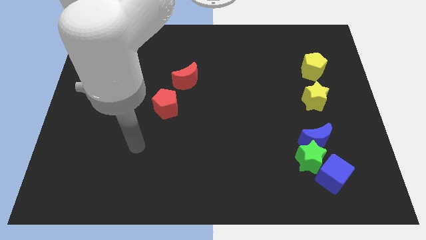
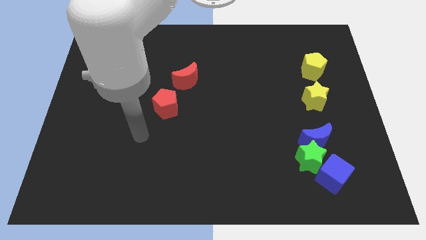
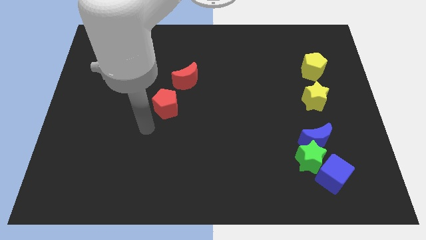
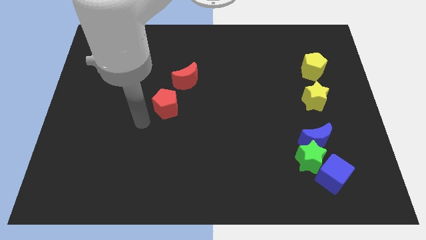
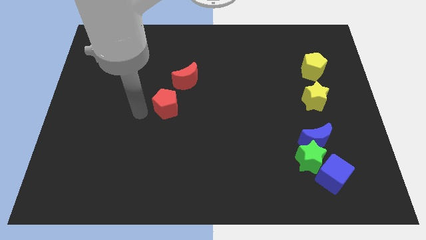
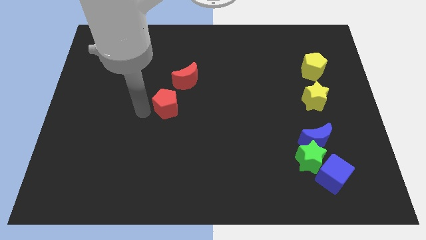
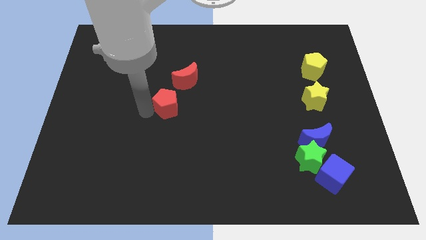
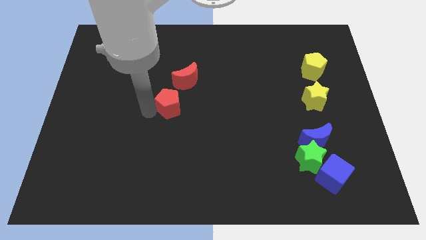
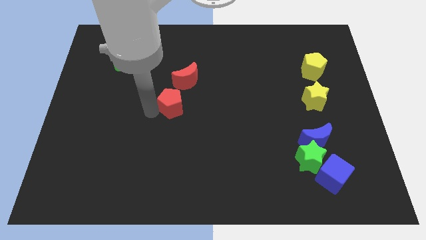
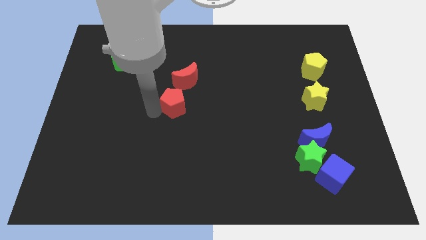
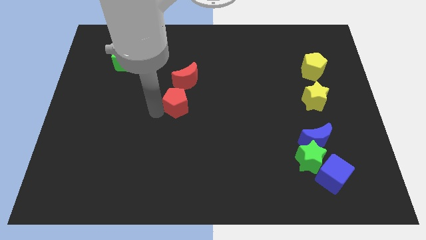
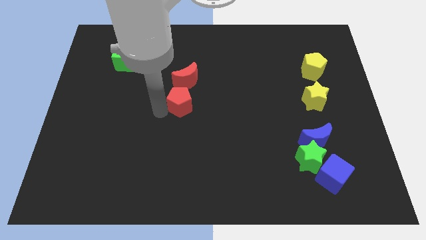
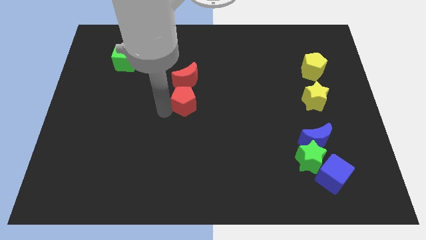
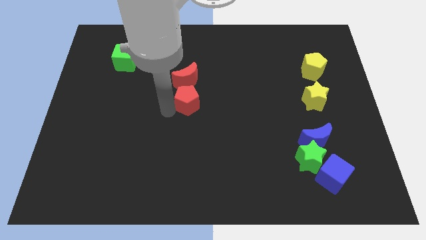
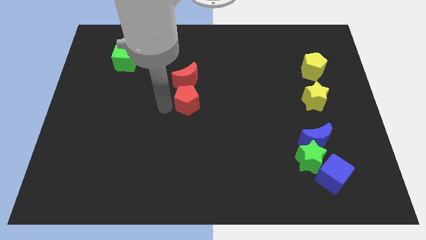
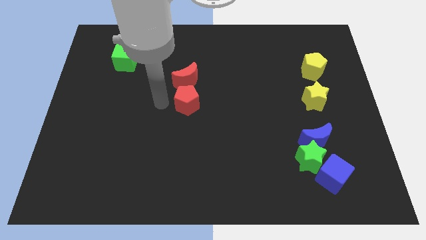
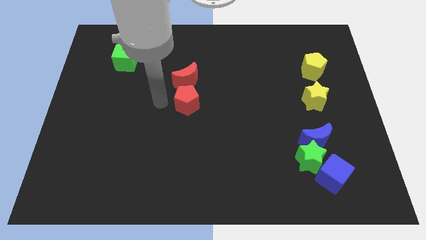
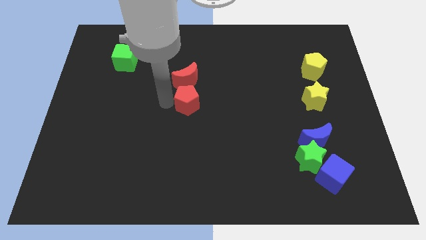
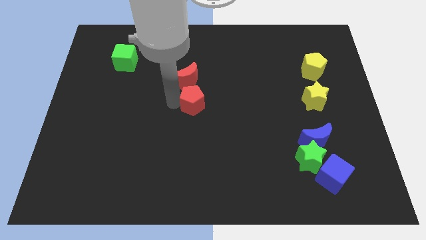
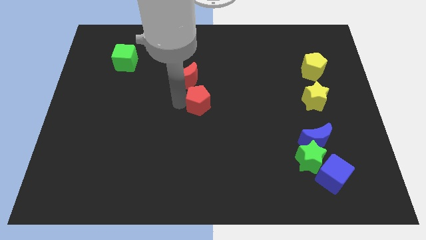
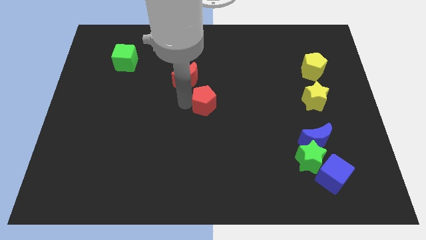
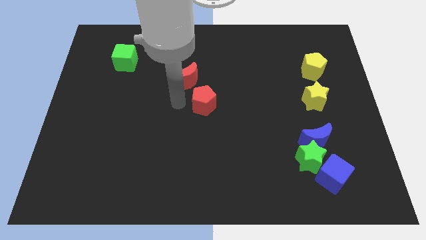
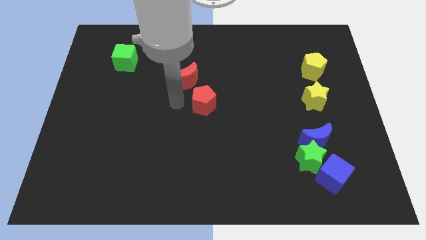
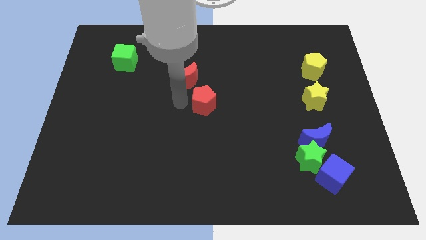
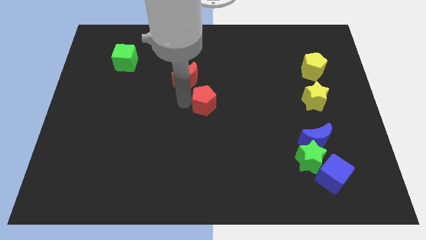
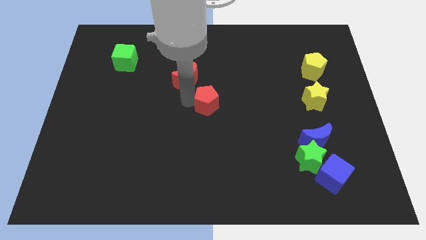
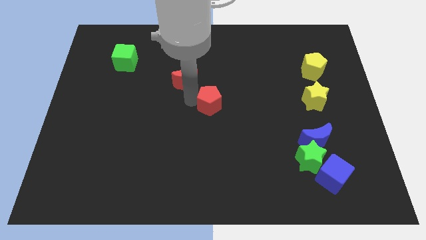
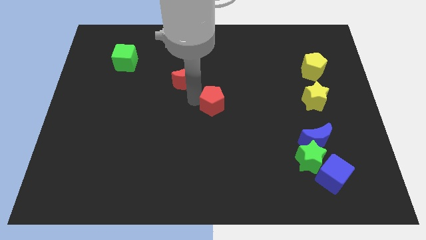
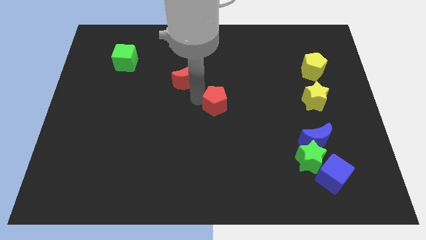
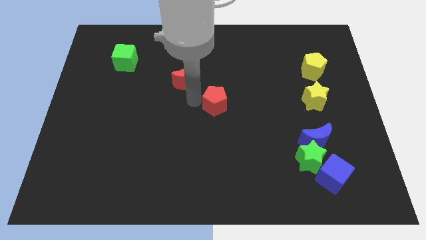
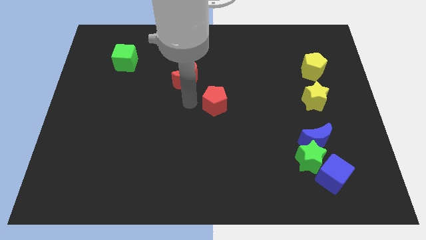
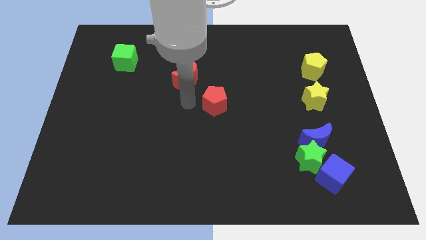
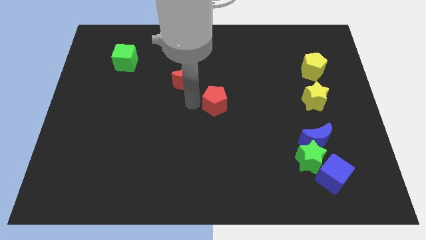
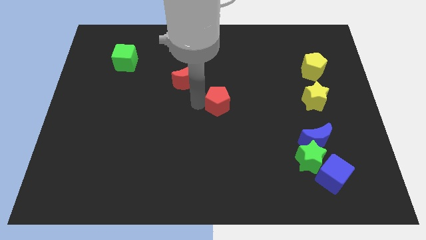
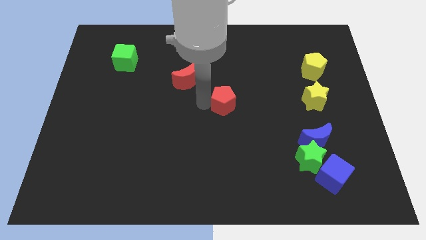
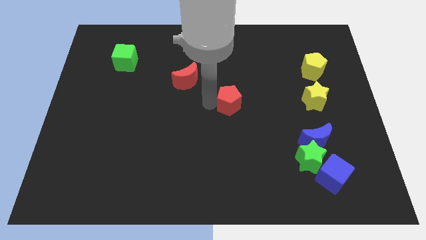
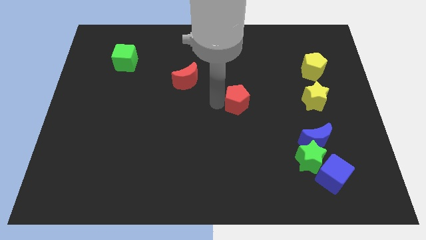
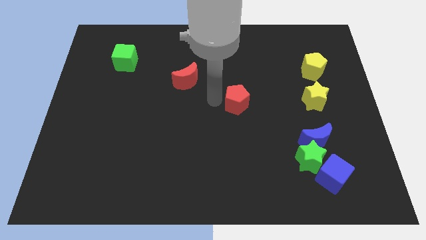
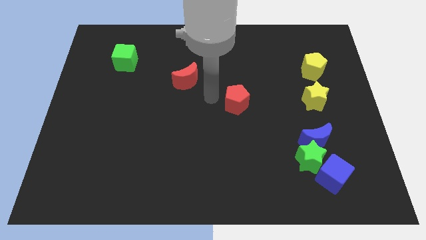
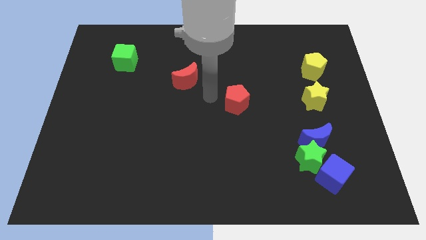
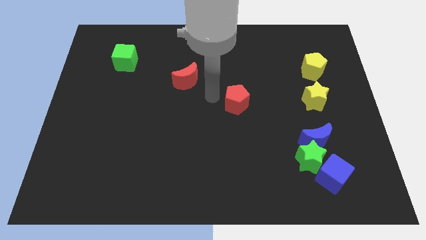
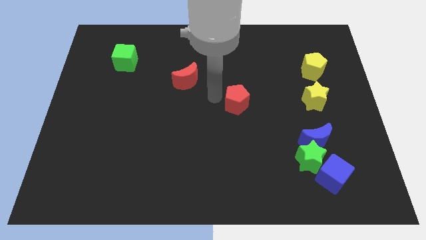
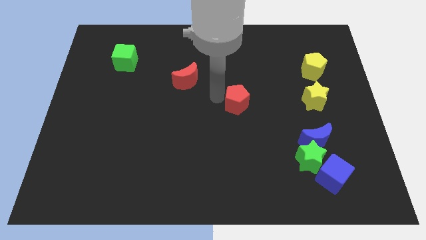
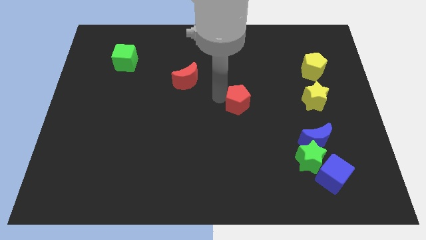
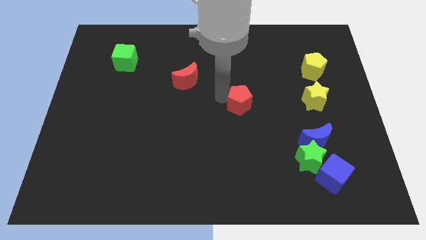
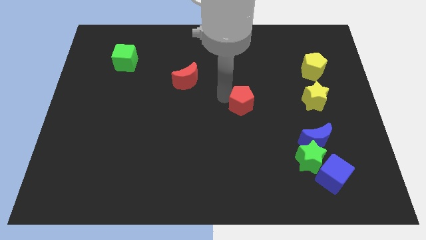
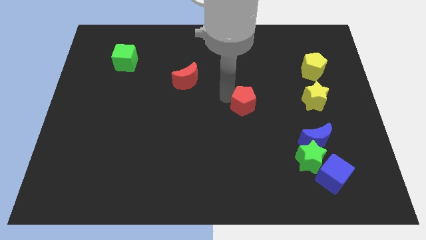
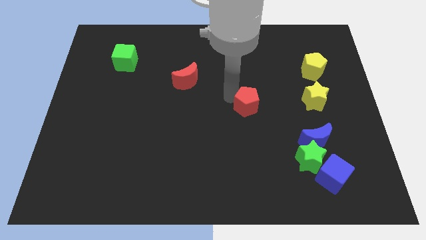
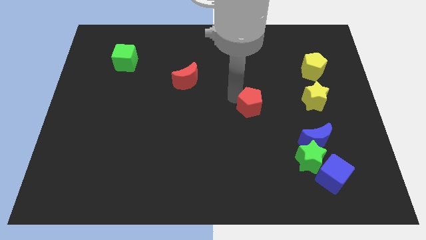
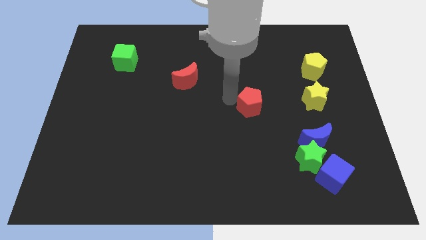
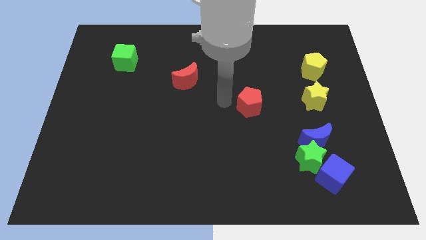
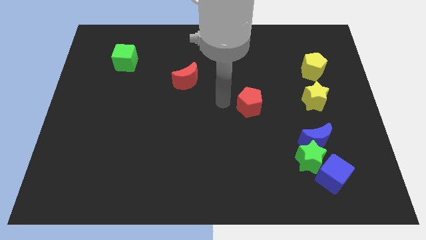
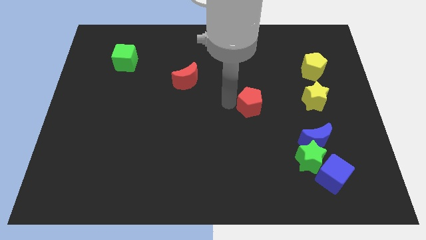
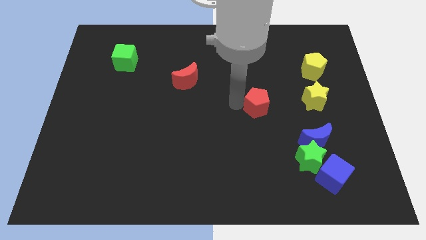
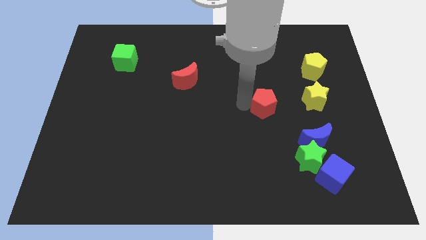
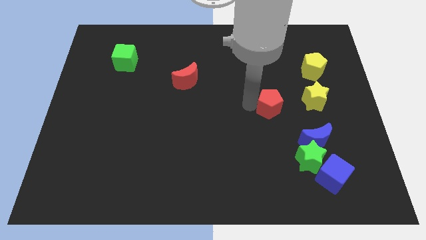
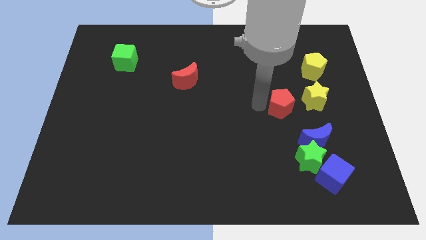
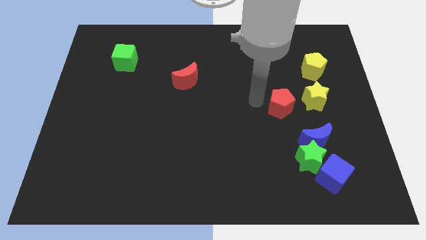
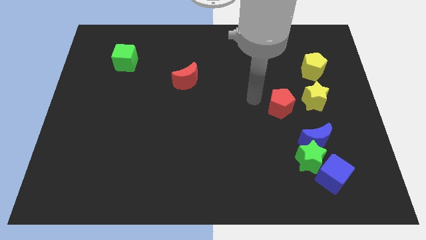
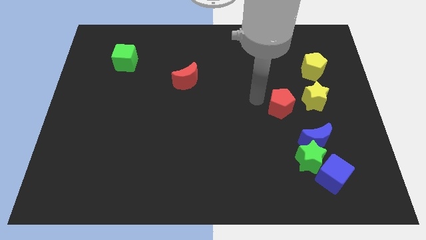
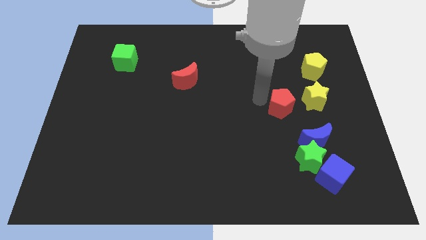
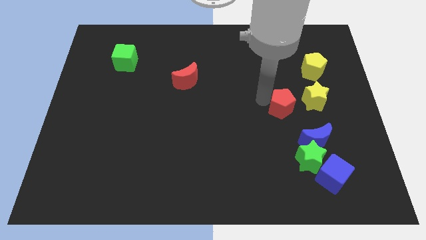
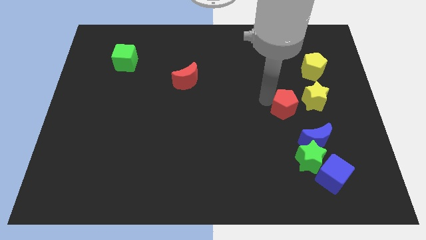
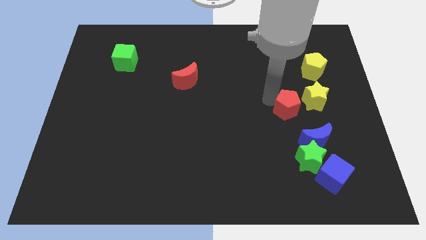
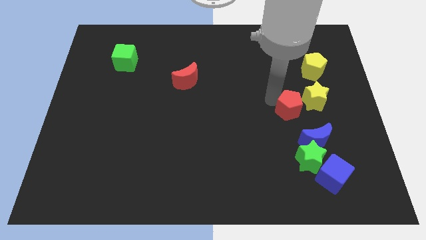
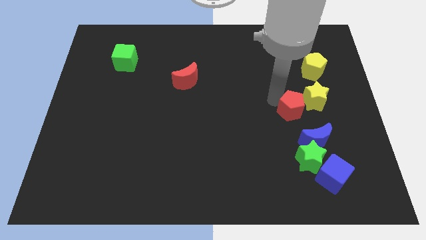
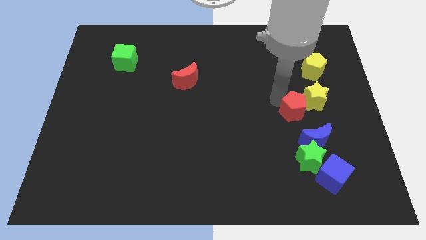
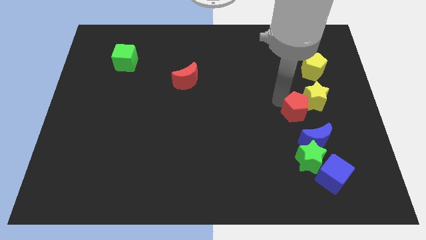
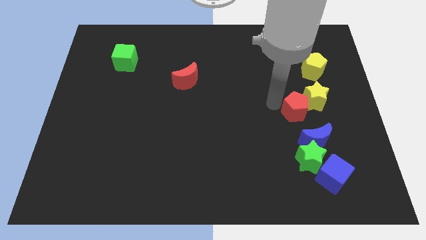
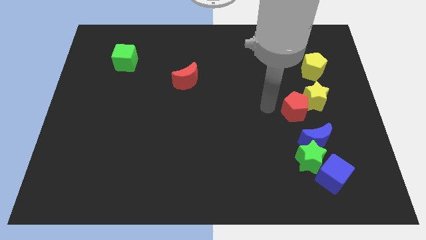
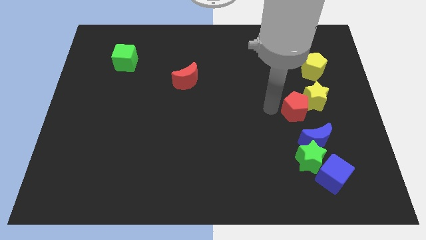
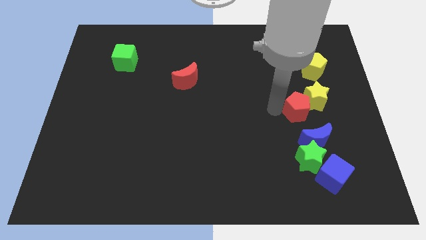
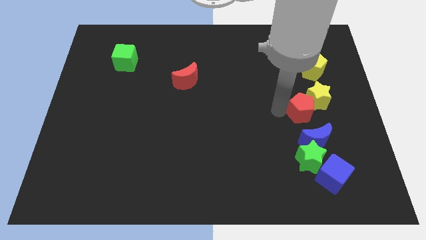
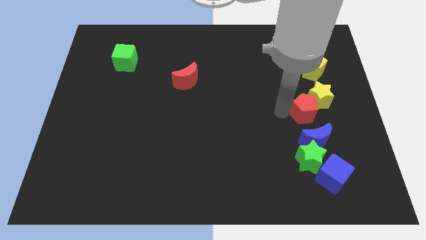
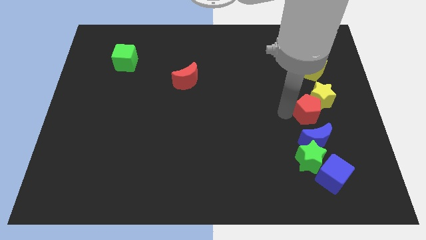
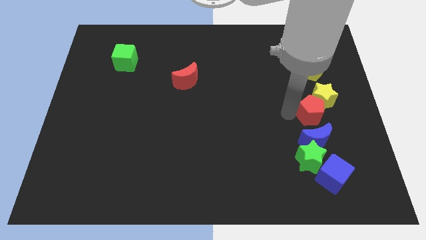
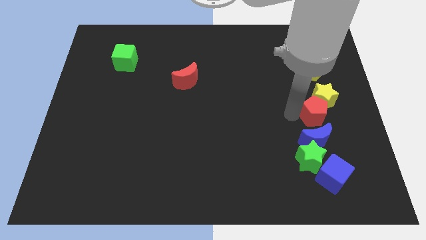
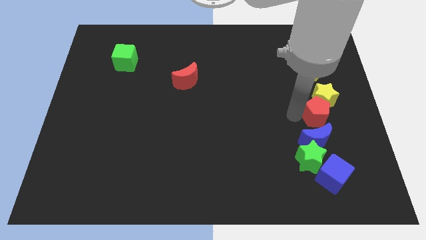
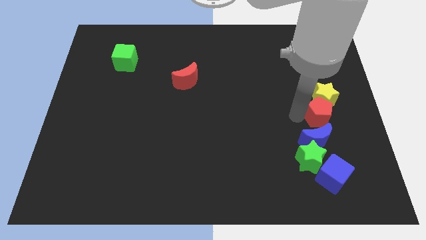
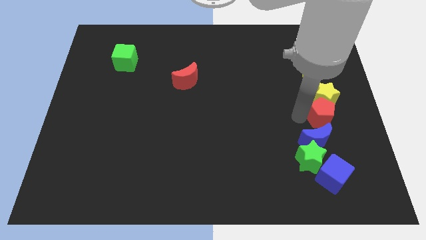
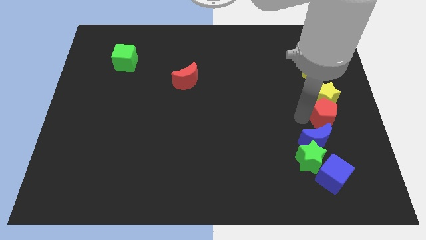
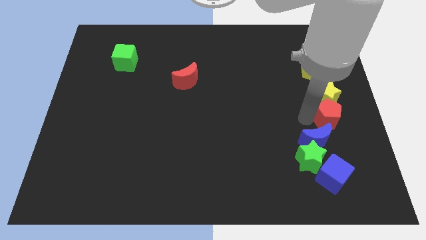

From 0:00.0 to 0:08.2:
move the red pentagon to the right side
